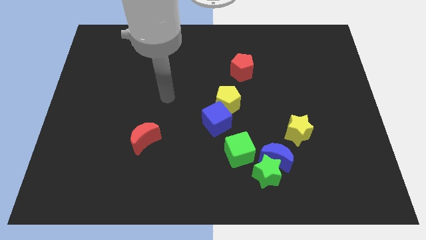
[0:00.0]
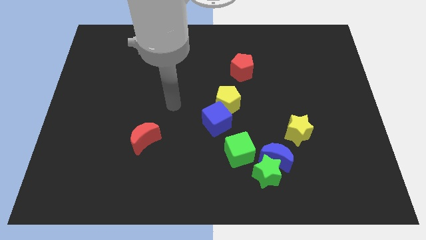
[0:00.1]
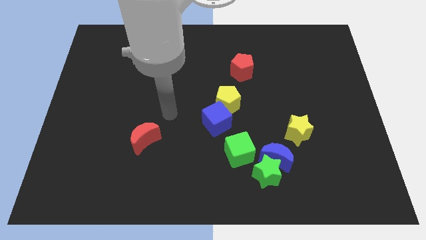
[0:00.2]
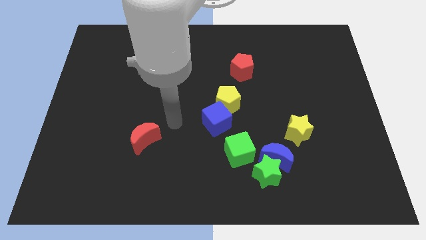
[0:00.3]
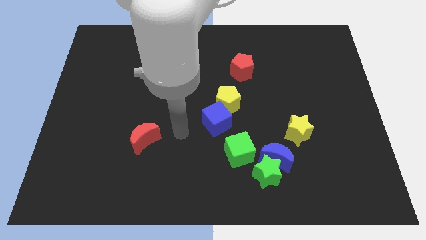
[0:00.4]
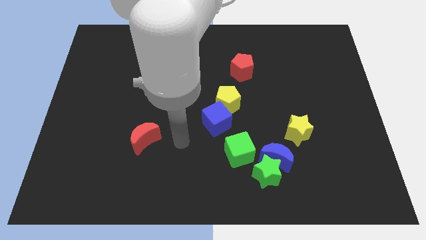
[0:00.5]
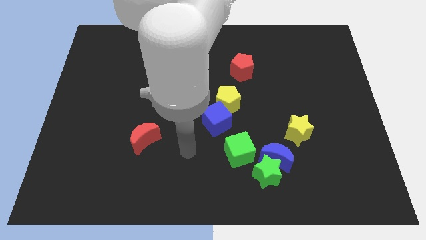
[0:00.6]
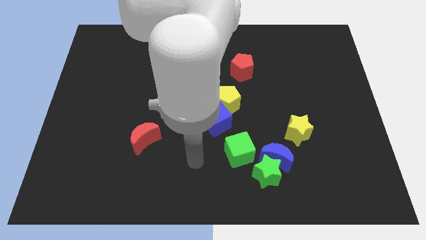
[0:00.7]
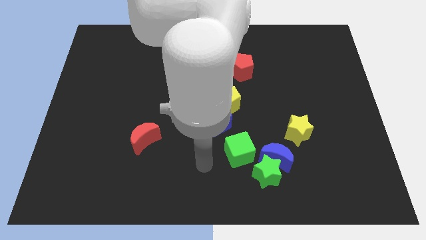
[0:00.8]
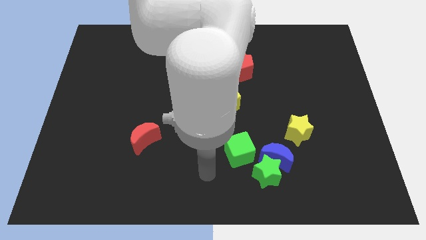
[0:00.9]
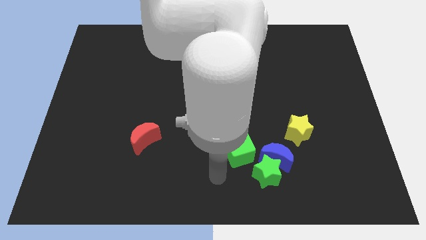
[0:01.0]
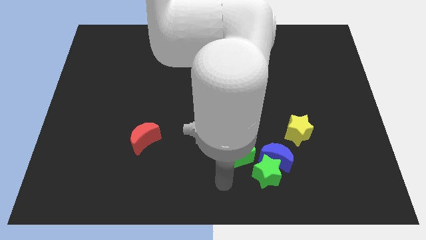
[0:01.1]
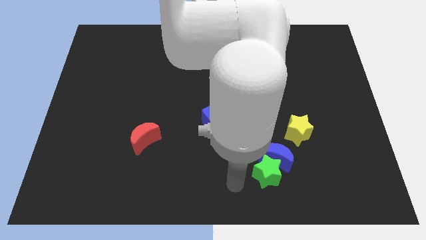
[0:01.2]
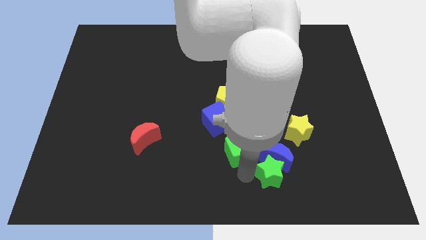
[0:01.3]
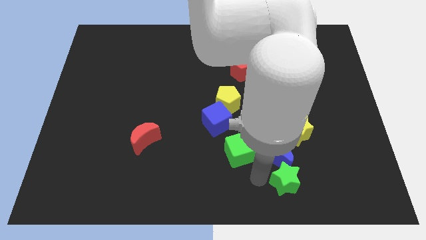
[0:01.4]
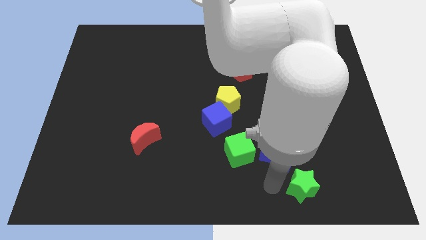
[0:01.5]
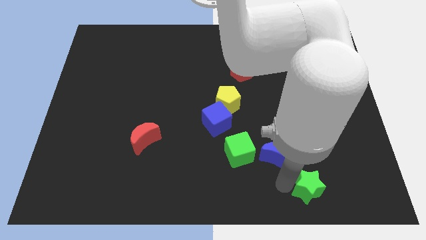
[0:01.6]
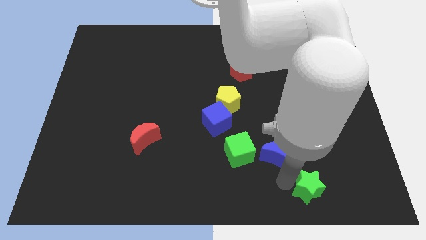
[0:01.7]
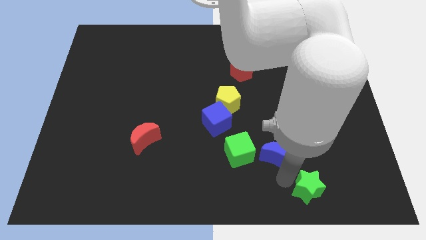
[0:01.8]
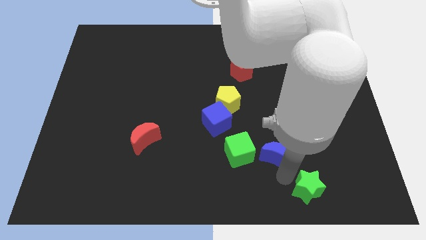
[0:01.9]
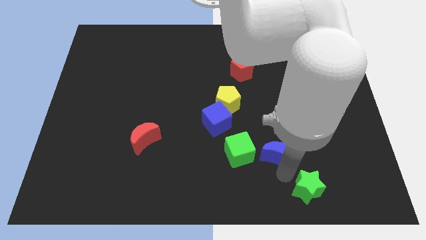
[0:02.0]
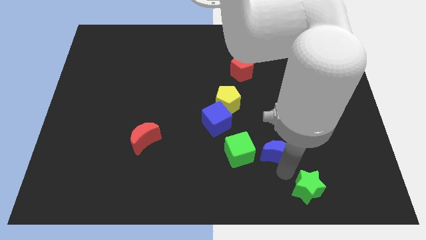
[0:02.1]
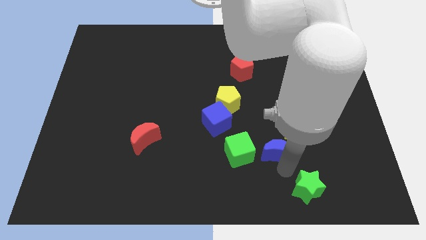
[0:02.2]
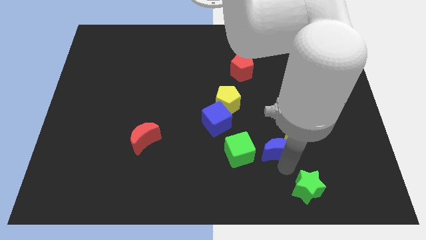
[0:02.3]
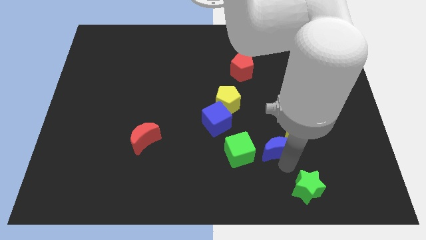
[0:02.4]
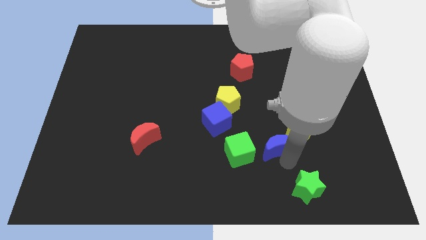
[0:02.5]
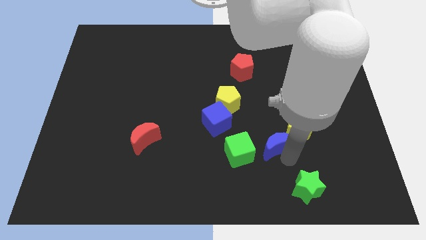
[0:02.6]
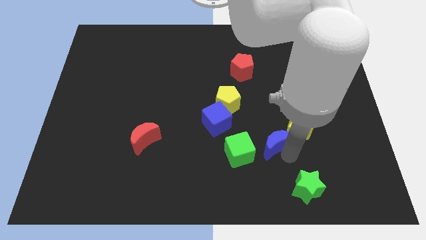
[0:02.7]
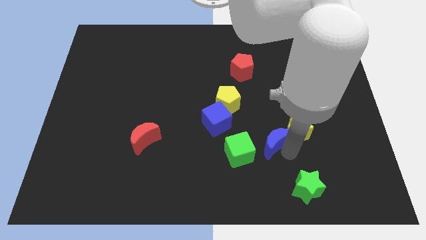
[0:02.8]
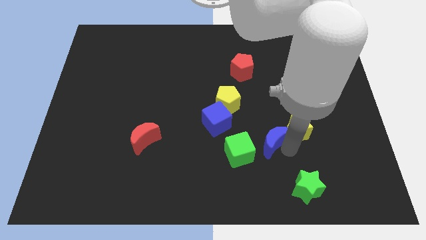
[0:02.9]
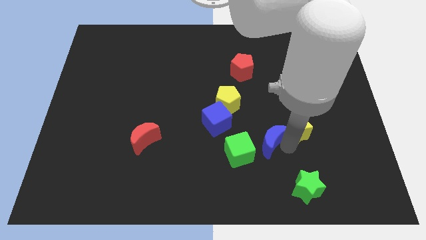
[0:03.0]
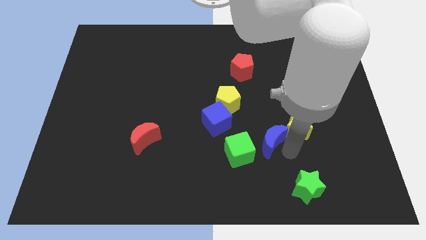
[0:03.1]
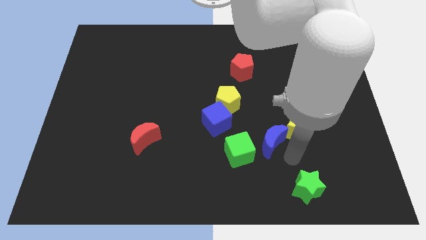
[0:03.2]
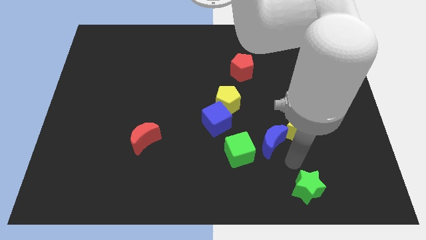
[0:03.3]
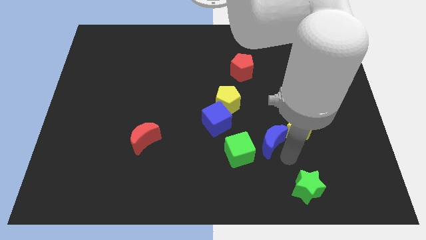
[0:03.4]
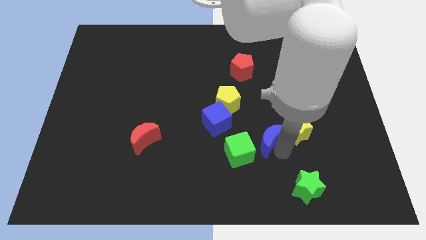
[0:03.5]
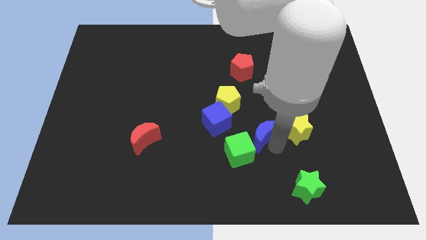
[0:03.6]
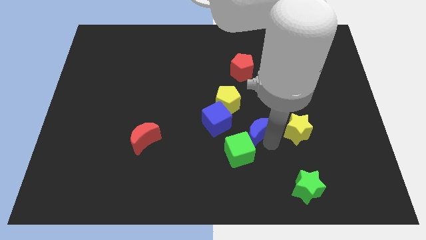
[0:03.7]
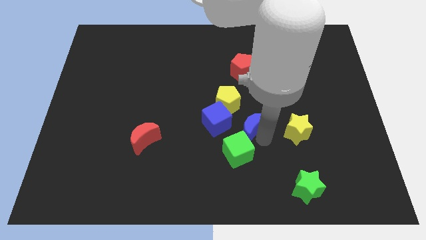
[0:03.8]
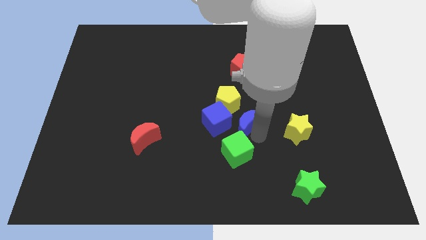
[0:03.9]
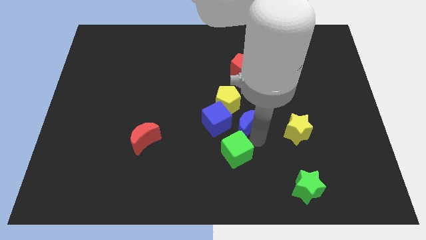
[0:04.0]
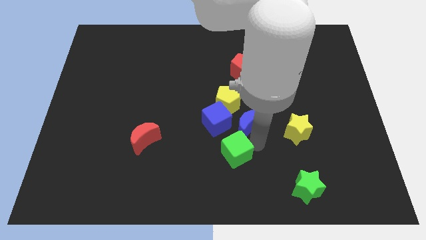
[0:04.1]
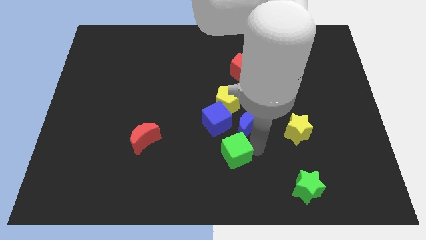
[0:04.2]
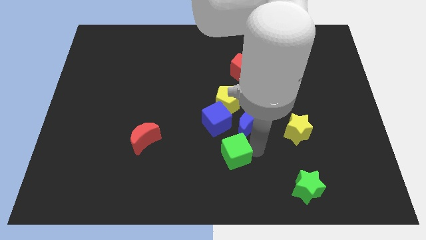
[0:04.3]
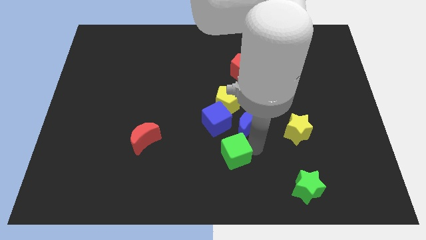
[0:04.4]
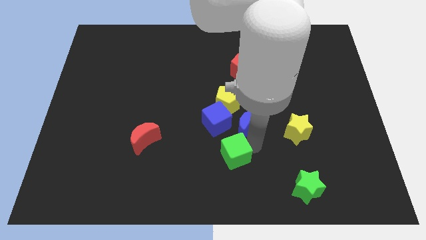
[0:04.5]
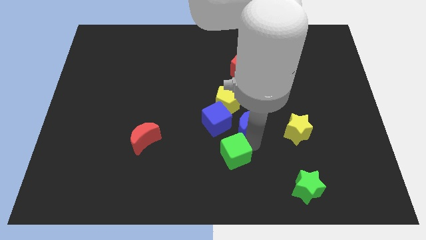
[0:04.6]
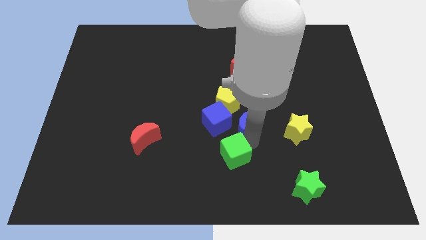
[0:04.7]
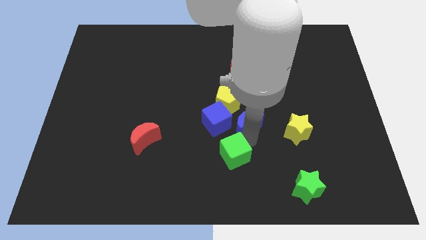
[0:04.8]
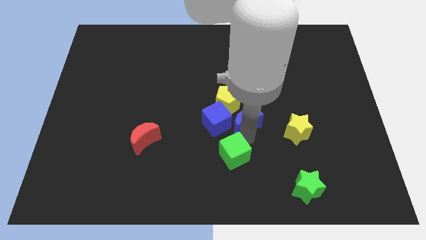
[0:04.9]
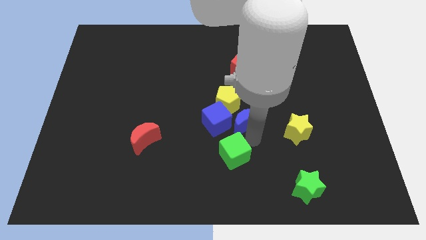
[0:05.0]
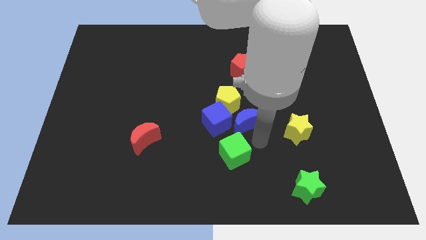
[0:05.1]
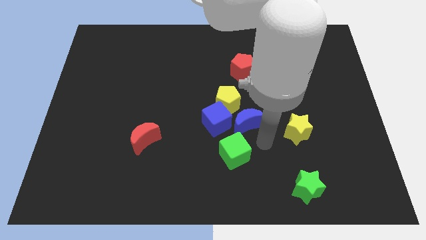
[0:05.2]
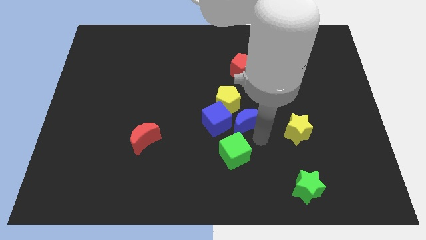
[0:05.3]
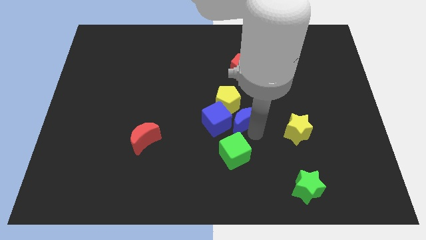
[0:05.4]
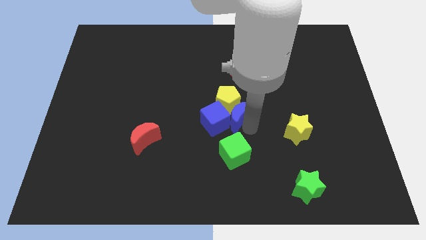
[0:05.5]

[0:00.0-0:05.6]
slide the blue moon towards the yellow pentagon

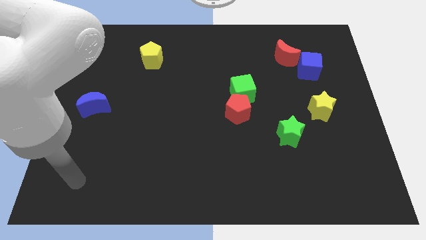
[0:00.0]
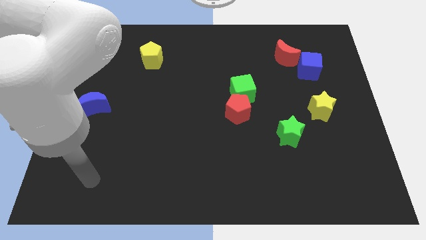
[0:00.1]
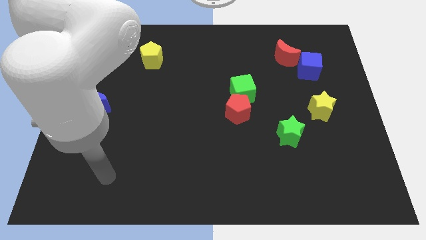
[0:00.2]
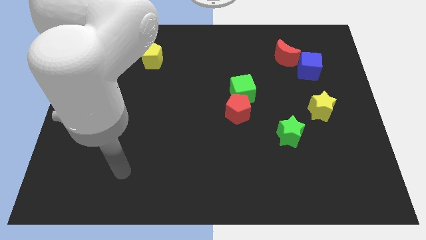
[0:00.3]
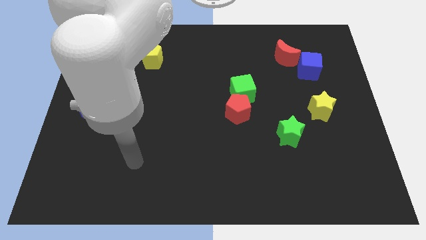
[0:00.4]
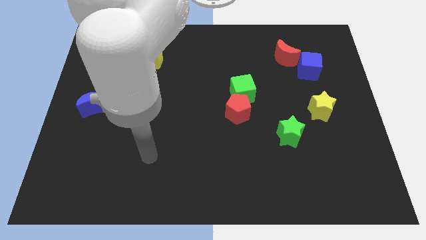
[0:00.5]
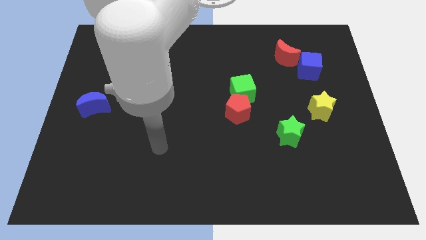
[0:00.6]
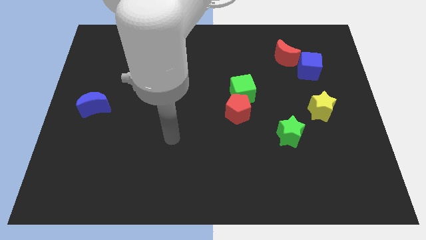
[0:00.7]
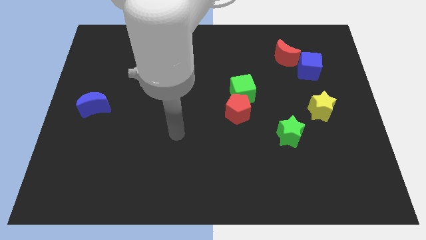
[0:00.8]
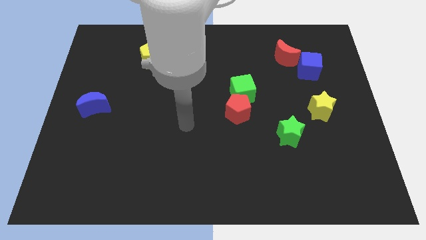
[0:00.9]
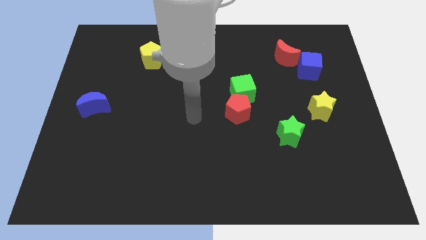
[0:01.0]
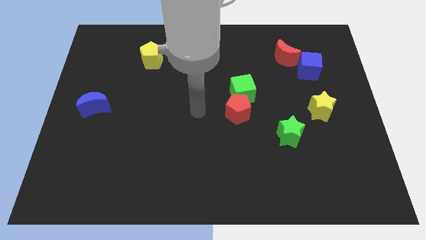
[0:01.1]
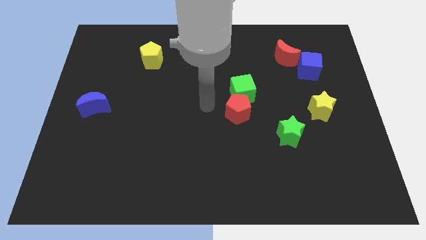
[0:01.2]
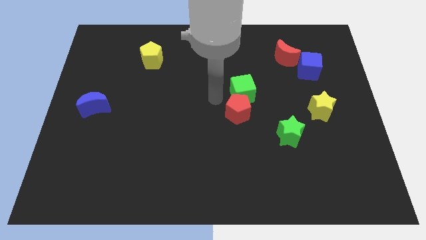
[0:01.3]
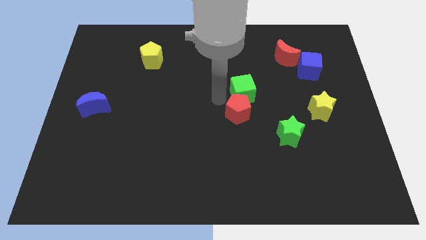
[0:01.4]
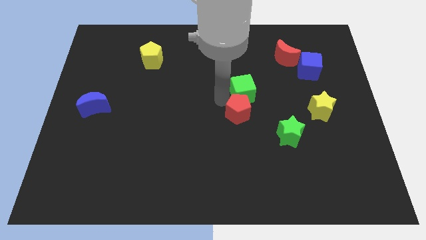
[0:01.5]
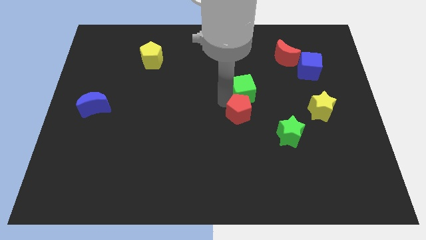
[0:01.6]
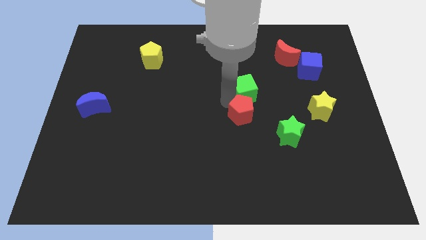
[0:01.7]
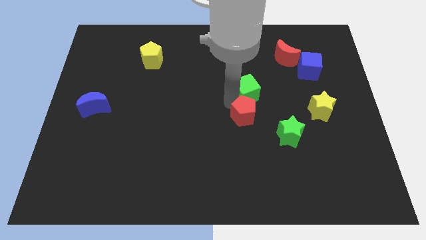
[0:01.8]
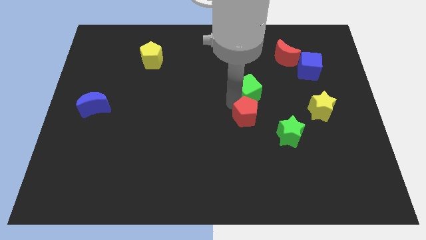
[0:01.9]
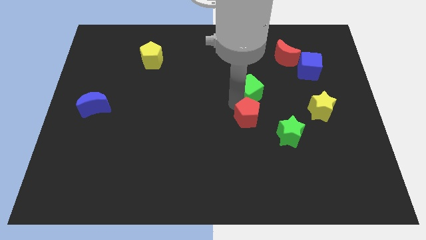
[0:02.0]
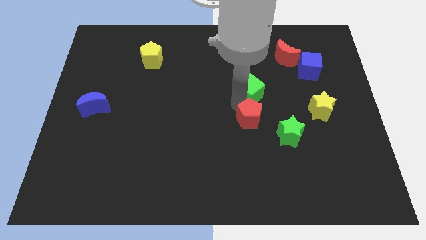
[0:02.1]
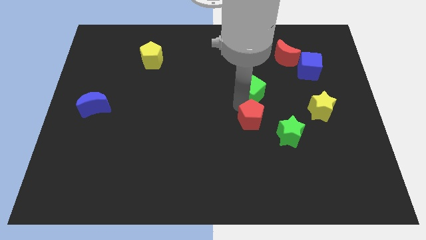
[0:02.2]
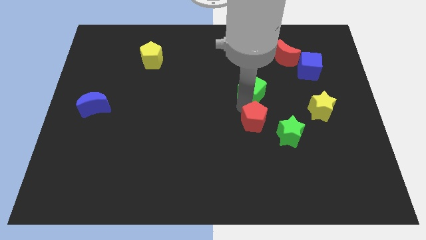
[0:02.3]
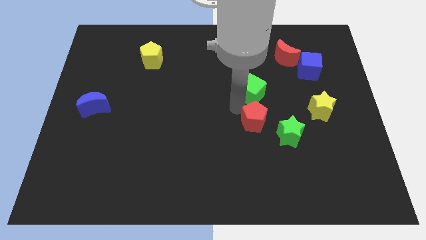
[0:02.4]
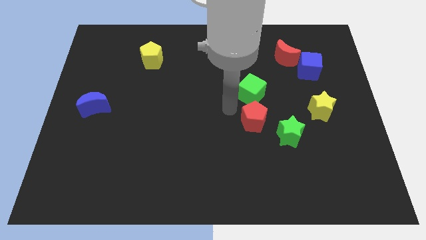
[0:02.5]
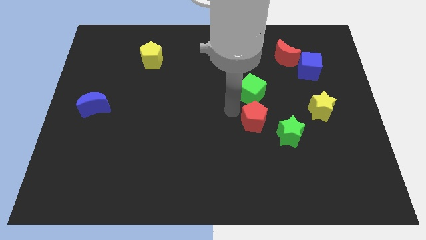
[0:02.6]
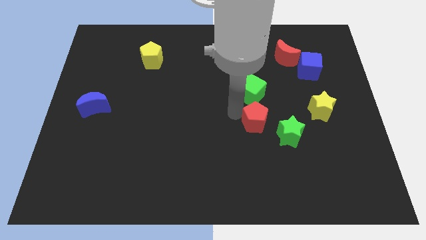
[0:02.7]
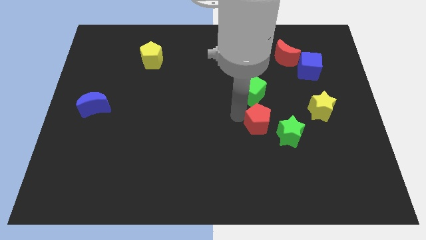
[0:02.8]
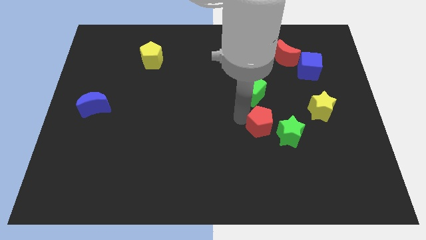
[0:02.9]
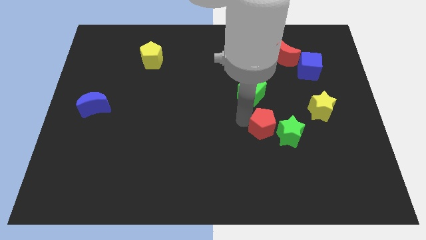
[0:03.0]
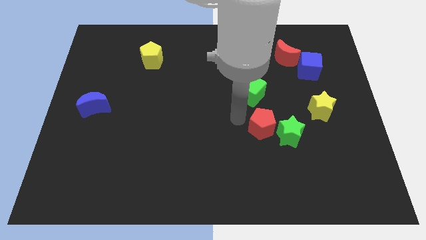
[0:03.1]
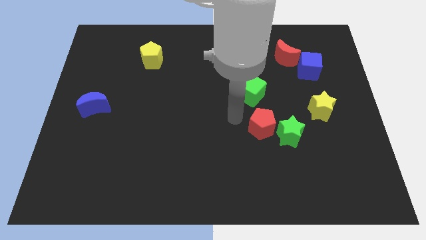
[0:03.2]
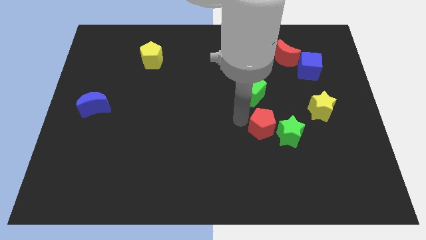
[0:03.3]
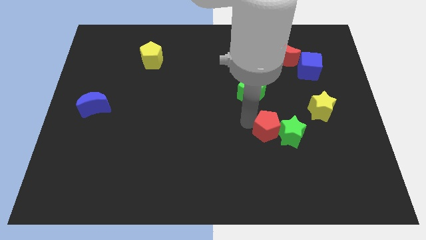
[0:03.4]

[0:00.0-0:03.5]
push the red pentagon close to the green star
